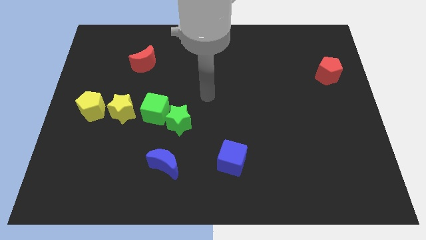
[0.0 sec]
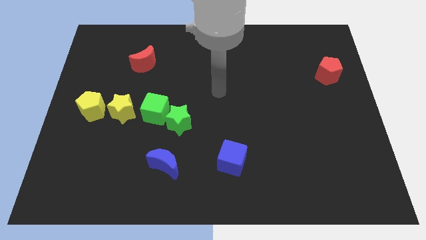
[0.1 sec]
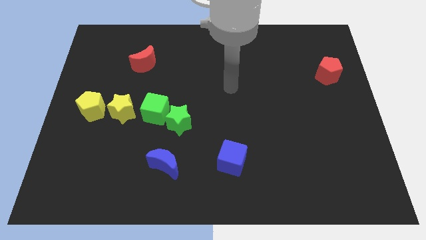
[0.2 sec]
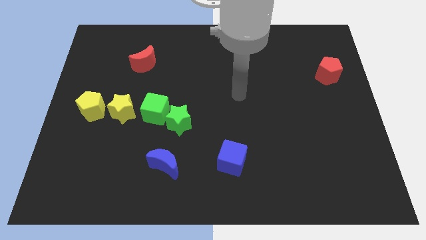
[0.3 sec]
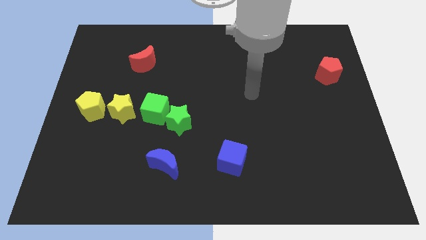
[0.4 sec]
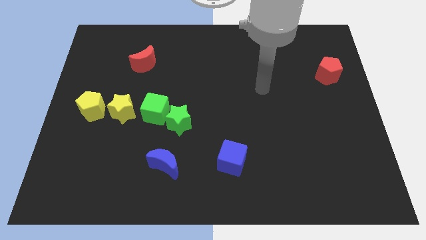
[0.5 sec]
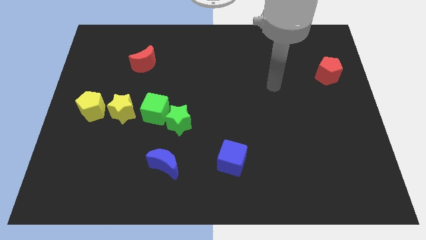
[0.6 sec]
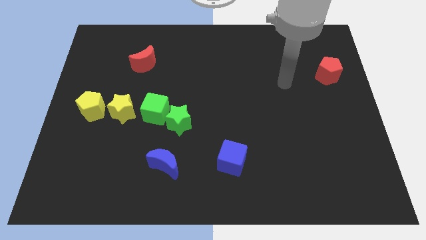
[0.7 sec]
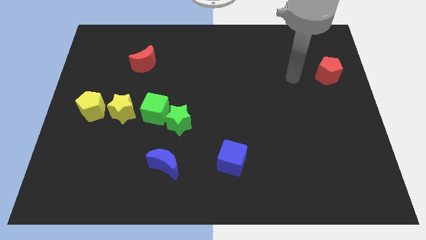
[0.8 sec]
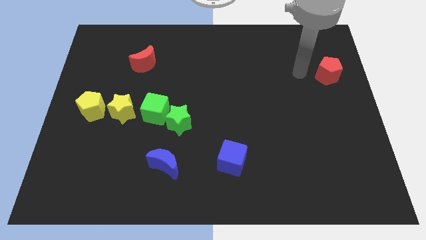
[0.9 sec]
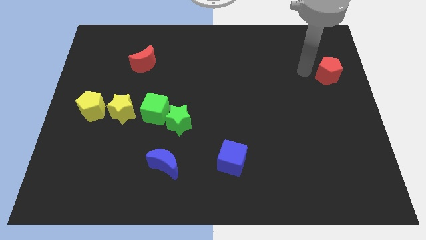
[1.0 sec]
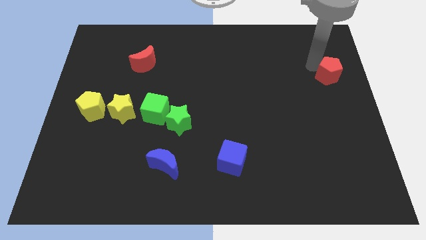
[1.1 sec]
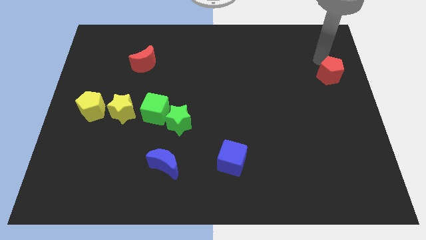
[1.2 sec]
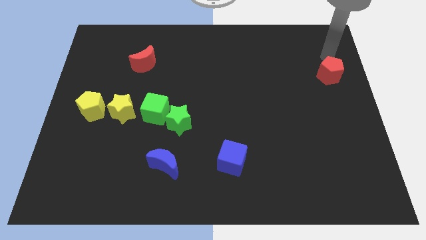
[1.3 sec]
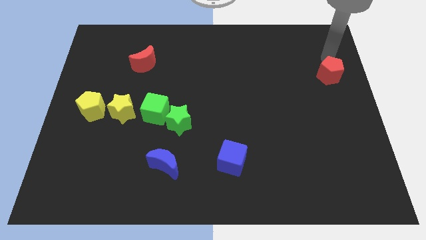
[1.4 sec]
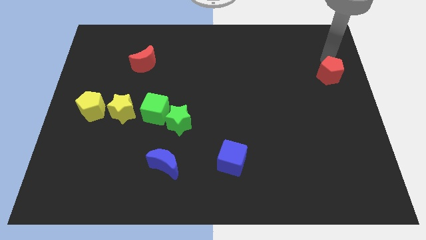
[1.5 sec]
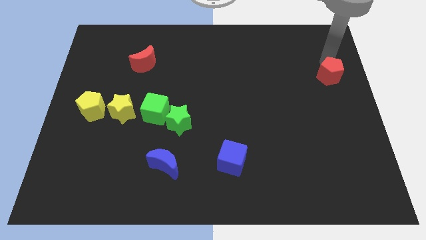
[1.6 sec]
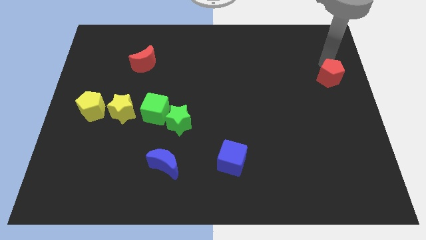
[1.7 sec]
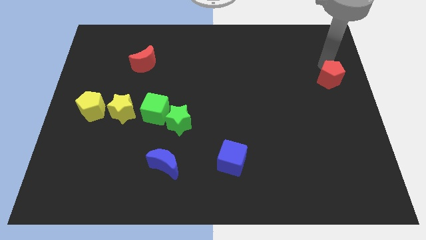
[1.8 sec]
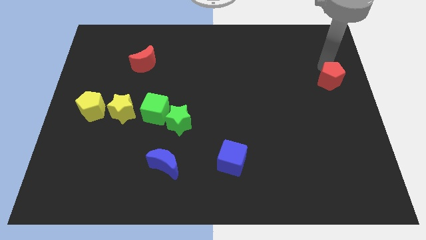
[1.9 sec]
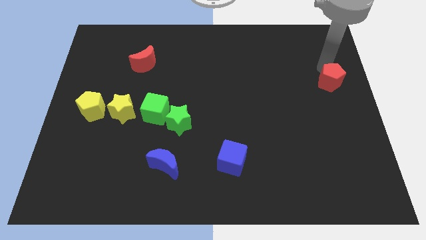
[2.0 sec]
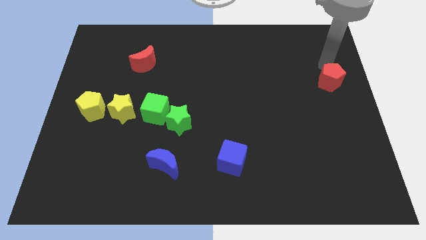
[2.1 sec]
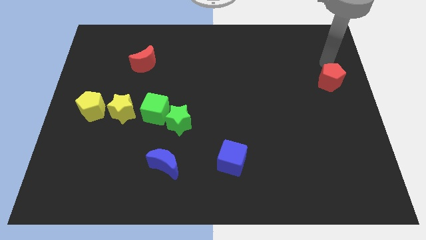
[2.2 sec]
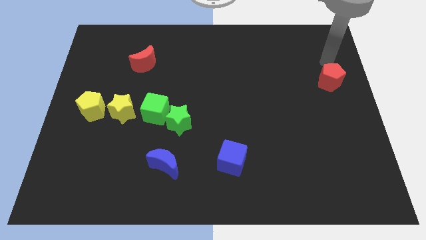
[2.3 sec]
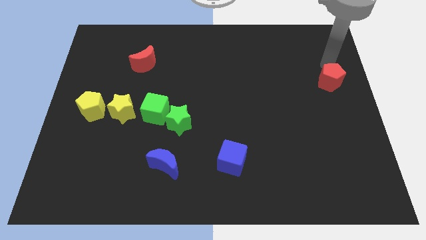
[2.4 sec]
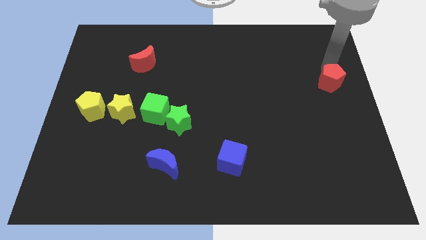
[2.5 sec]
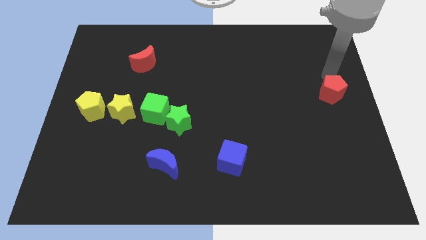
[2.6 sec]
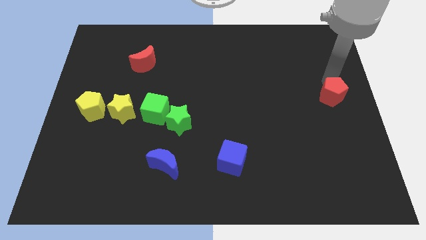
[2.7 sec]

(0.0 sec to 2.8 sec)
move the red pentagon downwards somewhat

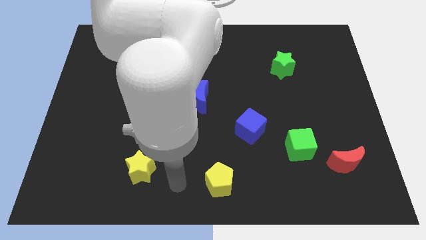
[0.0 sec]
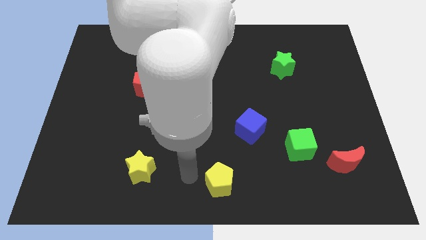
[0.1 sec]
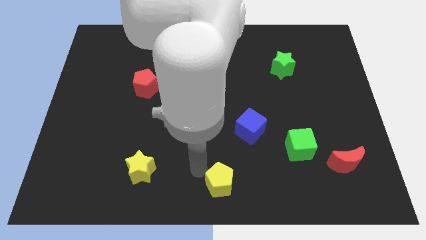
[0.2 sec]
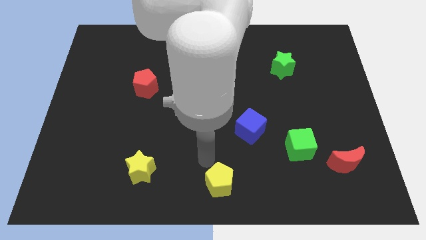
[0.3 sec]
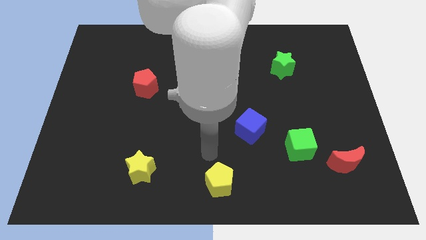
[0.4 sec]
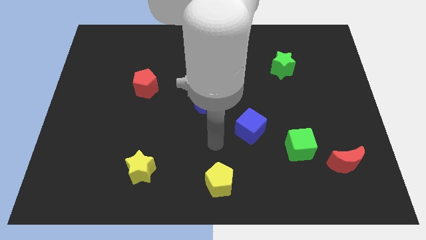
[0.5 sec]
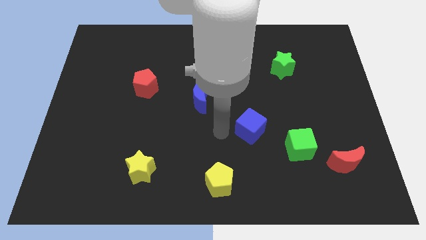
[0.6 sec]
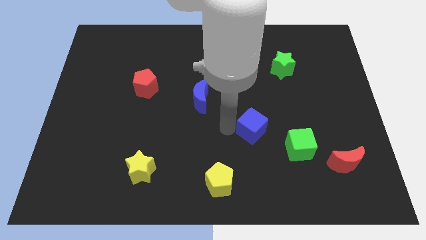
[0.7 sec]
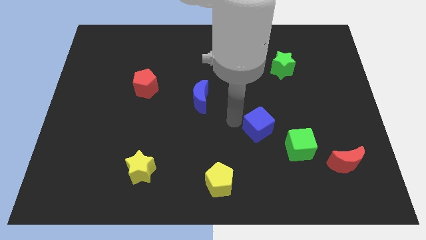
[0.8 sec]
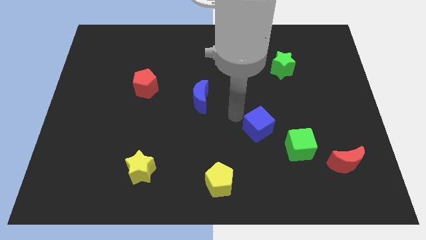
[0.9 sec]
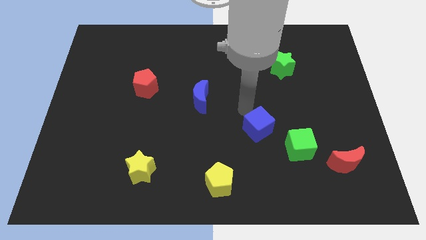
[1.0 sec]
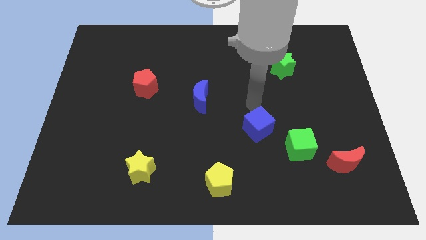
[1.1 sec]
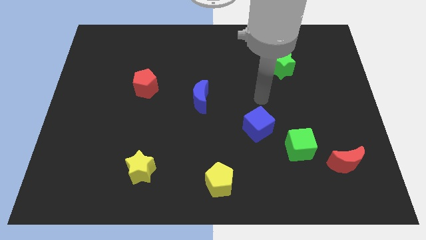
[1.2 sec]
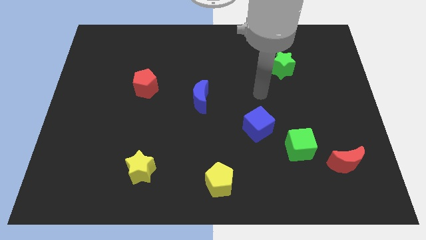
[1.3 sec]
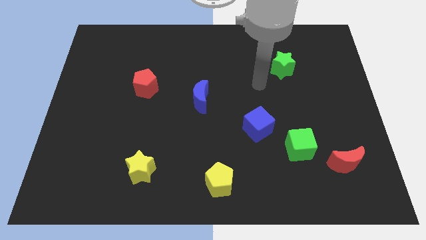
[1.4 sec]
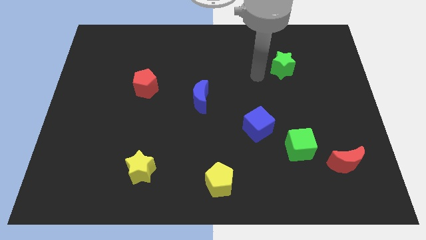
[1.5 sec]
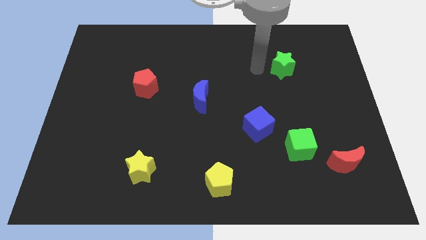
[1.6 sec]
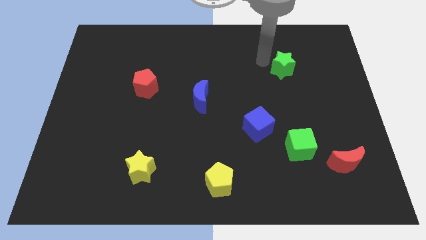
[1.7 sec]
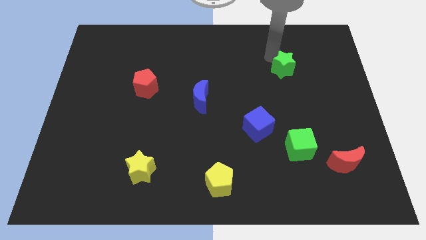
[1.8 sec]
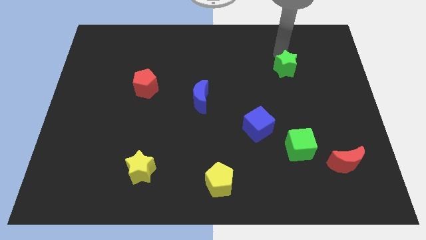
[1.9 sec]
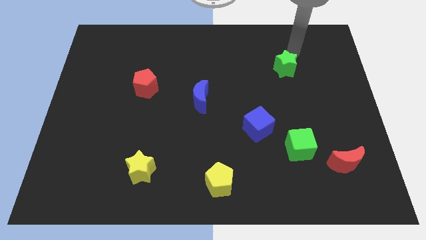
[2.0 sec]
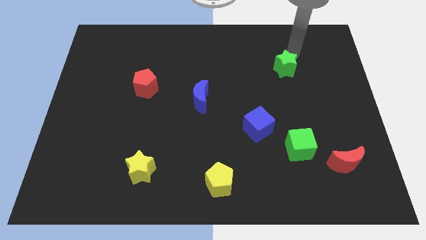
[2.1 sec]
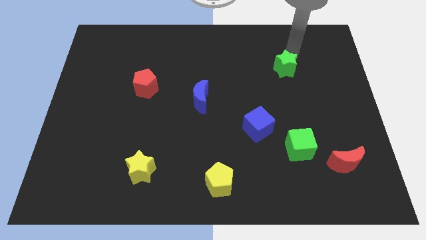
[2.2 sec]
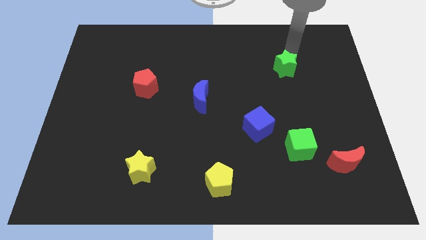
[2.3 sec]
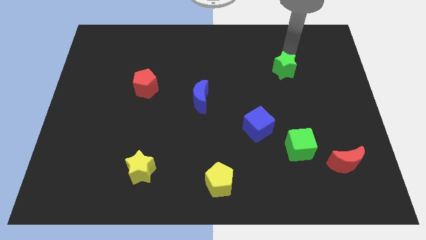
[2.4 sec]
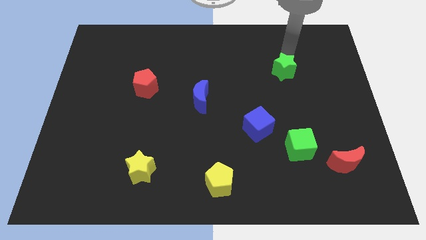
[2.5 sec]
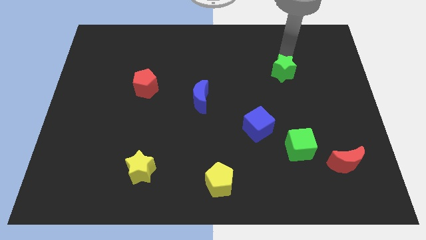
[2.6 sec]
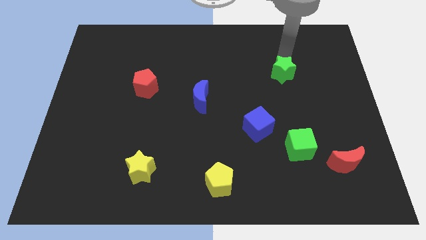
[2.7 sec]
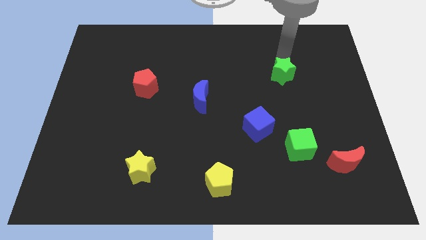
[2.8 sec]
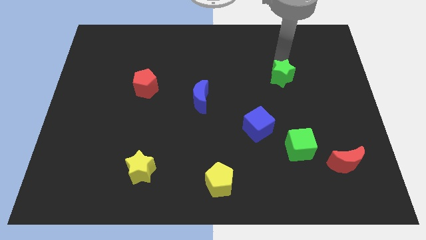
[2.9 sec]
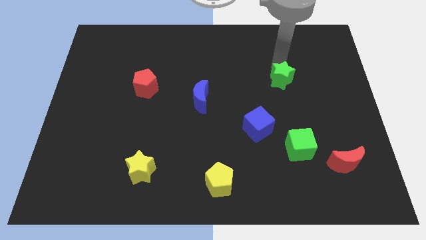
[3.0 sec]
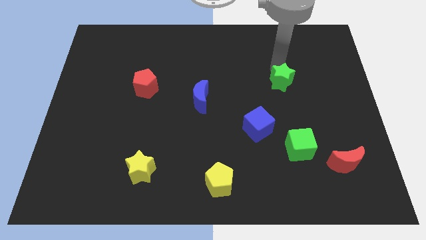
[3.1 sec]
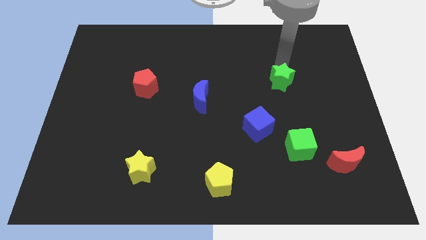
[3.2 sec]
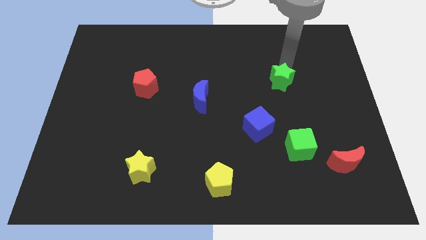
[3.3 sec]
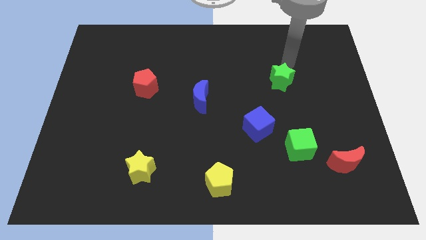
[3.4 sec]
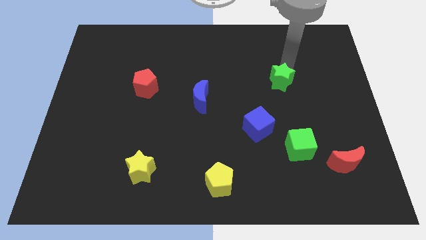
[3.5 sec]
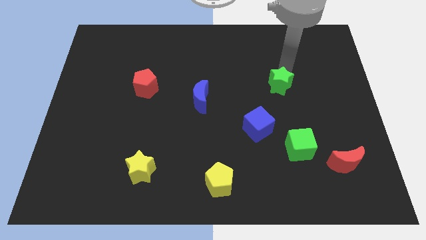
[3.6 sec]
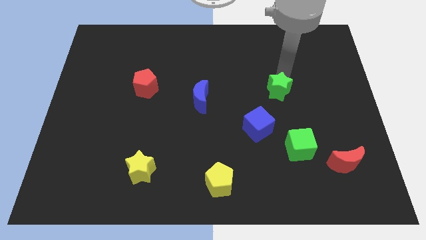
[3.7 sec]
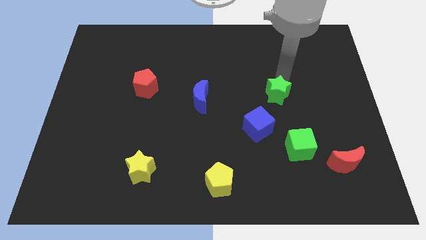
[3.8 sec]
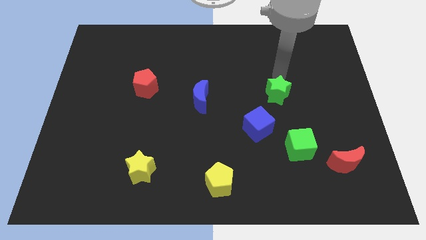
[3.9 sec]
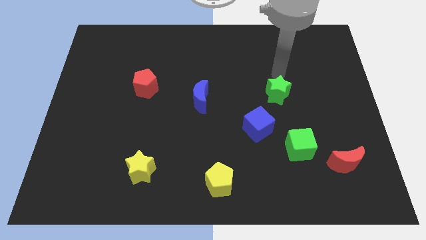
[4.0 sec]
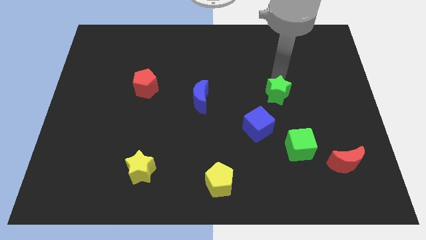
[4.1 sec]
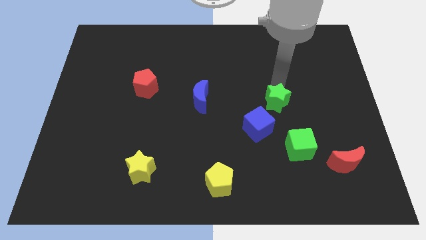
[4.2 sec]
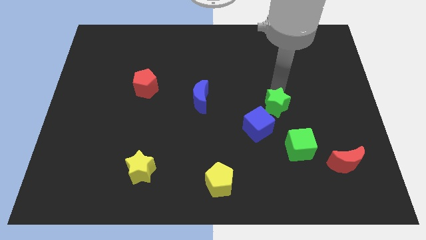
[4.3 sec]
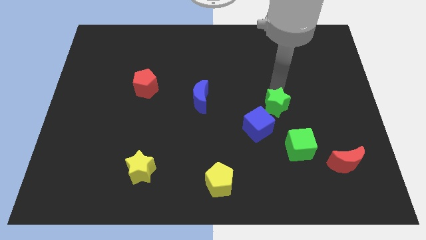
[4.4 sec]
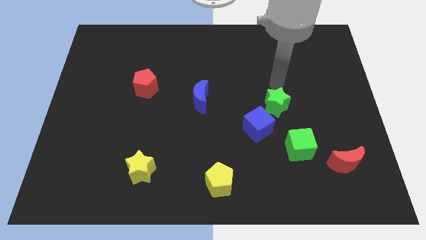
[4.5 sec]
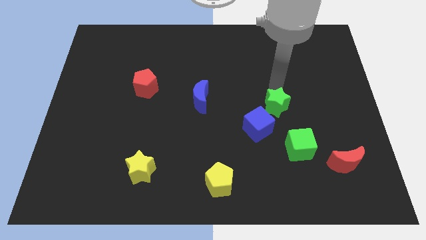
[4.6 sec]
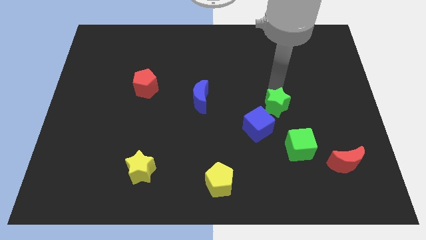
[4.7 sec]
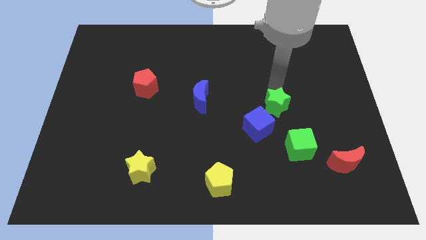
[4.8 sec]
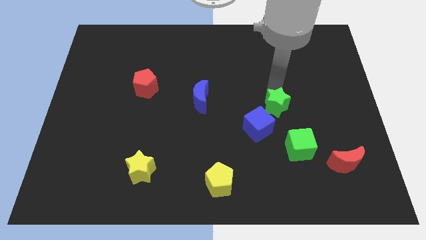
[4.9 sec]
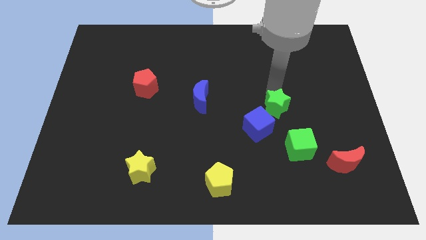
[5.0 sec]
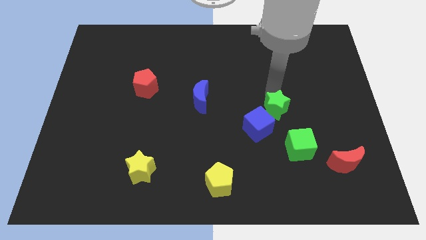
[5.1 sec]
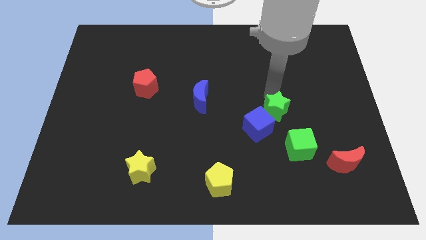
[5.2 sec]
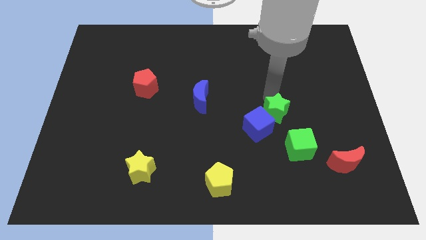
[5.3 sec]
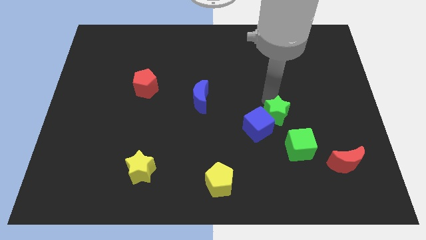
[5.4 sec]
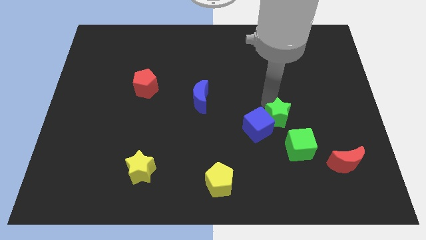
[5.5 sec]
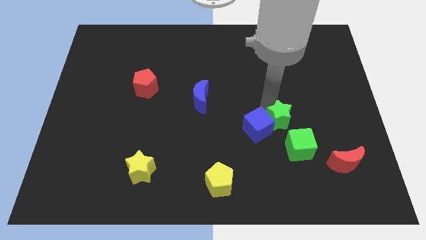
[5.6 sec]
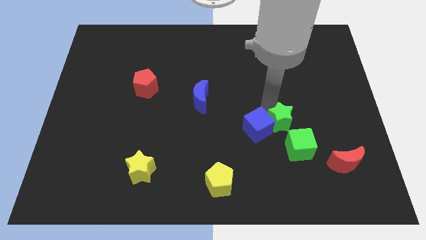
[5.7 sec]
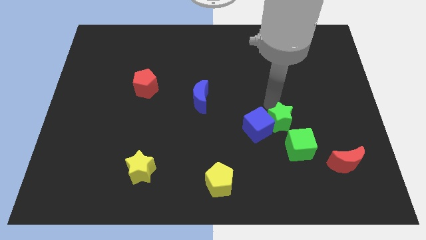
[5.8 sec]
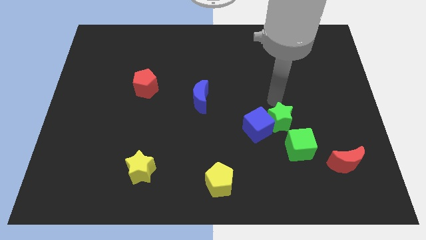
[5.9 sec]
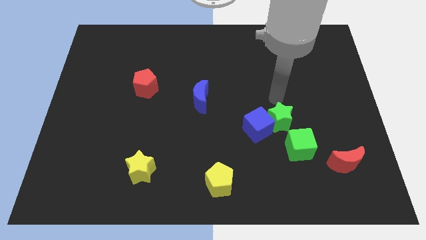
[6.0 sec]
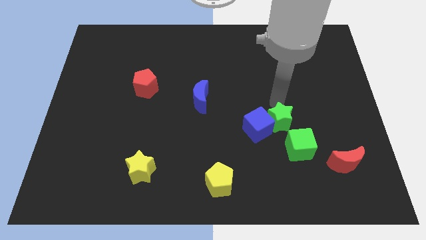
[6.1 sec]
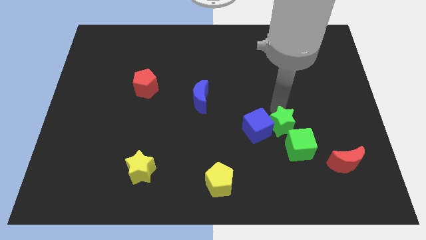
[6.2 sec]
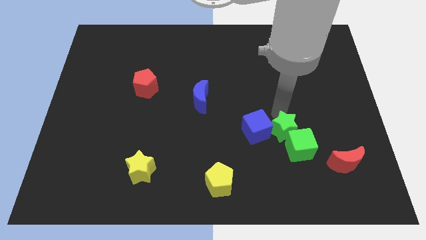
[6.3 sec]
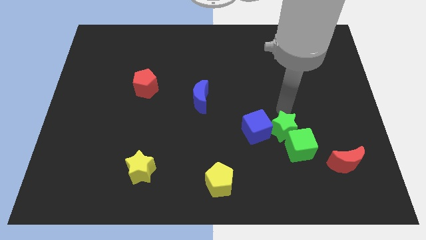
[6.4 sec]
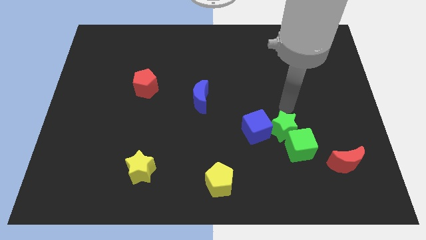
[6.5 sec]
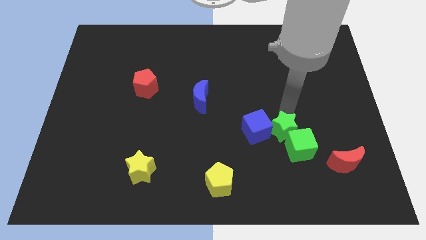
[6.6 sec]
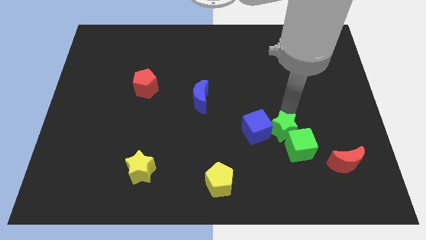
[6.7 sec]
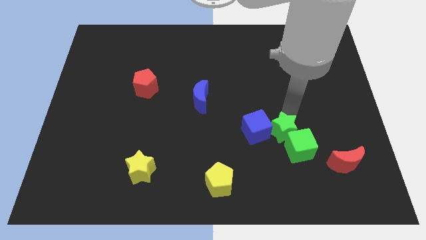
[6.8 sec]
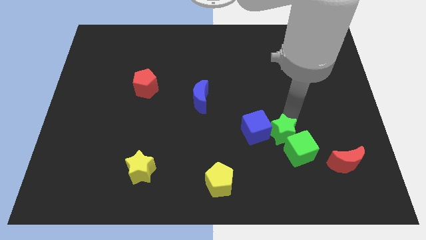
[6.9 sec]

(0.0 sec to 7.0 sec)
push the green star down
